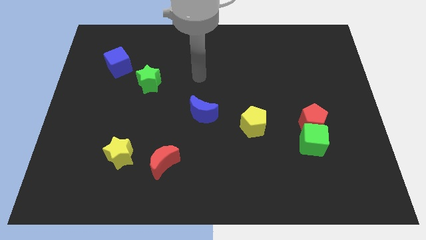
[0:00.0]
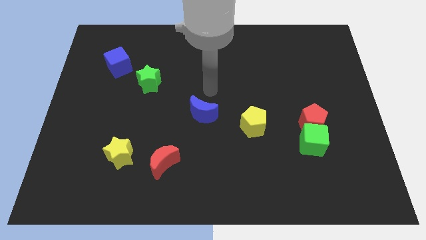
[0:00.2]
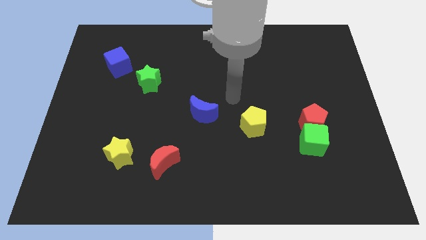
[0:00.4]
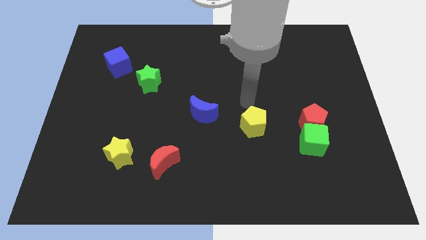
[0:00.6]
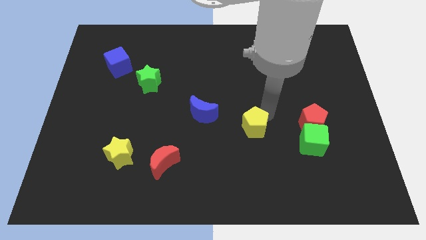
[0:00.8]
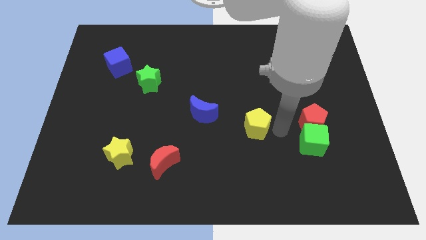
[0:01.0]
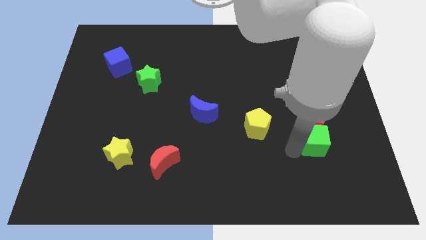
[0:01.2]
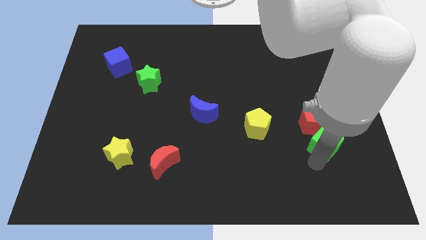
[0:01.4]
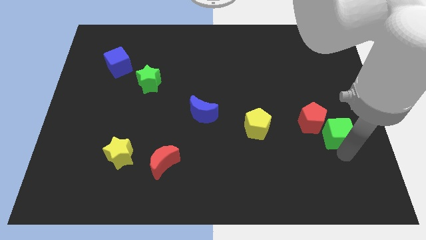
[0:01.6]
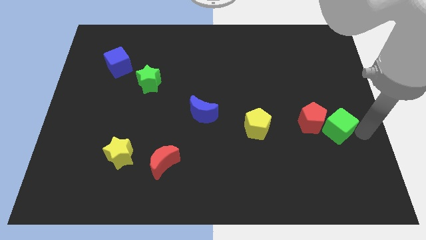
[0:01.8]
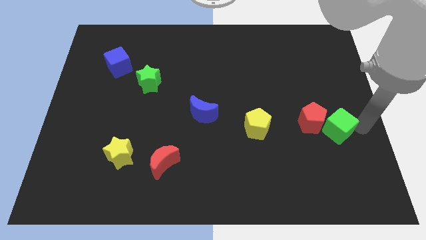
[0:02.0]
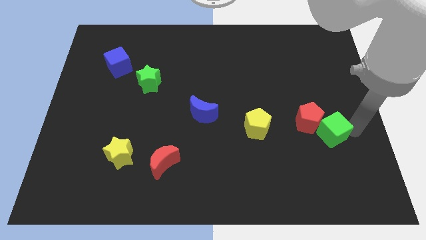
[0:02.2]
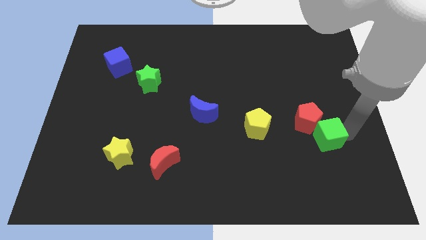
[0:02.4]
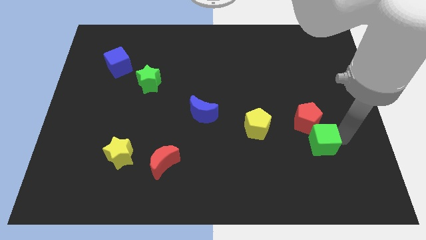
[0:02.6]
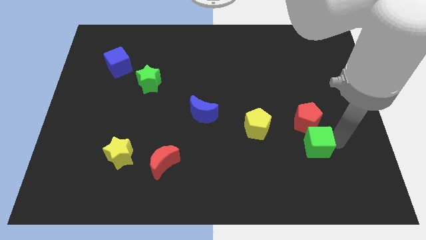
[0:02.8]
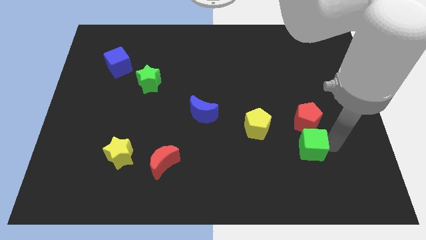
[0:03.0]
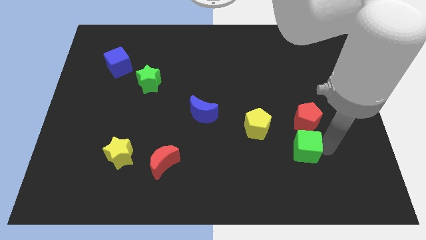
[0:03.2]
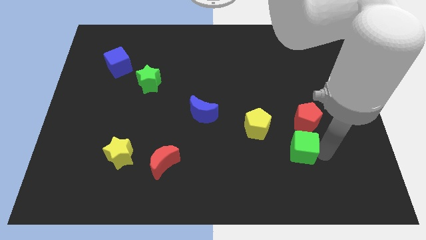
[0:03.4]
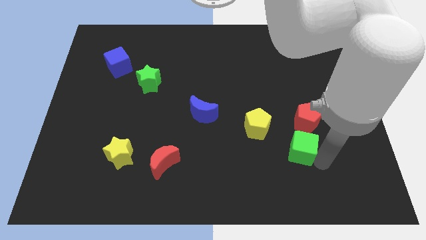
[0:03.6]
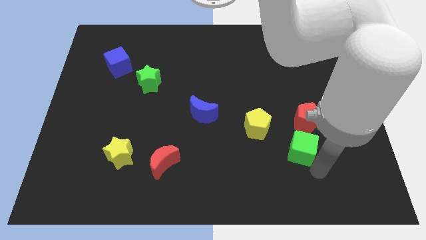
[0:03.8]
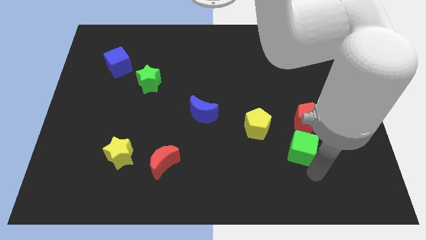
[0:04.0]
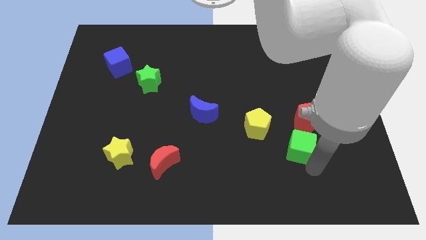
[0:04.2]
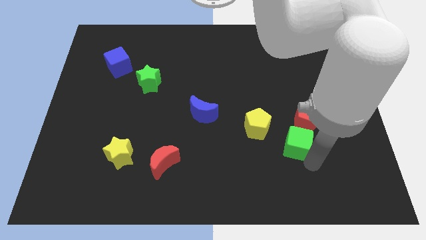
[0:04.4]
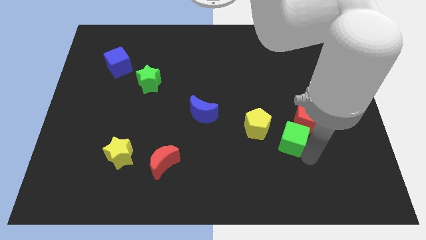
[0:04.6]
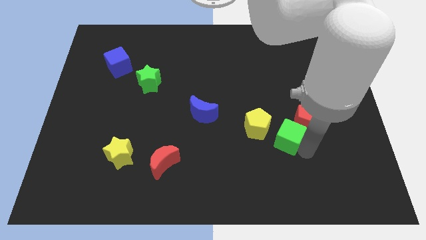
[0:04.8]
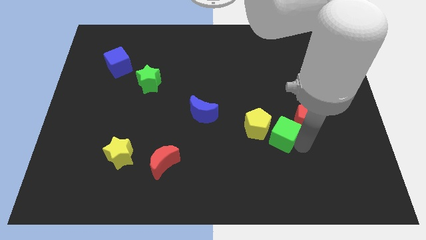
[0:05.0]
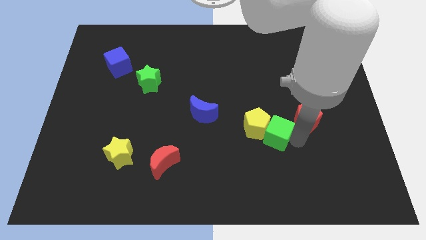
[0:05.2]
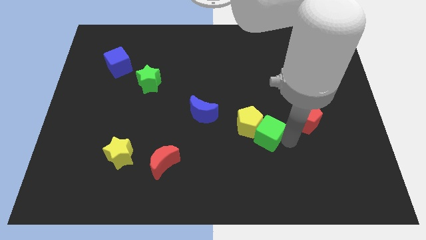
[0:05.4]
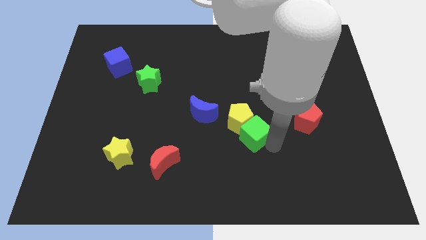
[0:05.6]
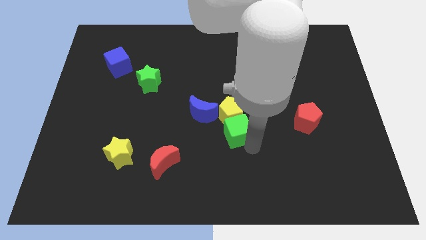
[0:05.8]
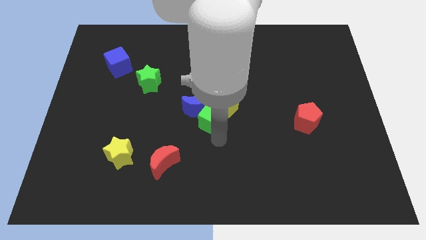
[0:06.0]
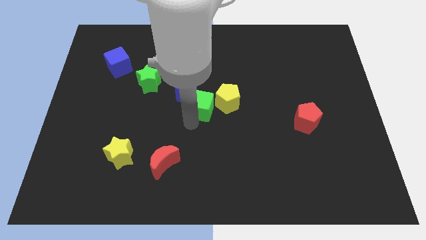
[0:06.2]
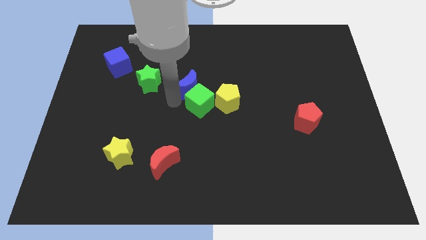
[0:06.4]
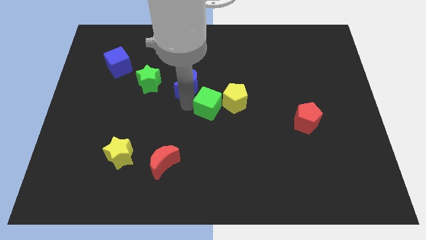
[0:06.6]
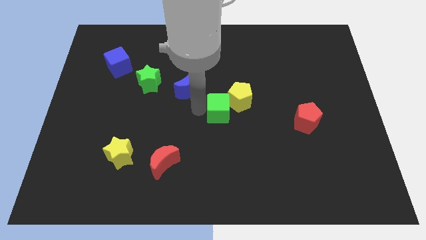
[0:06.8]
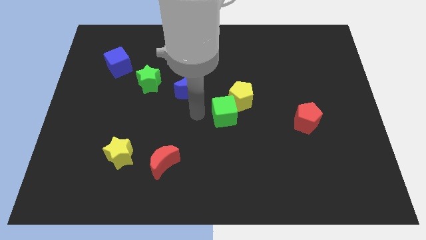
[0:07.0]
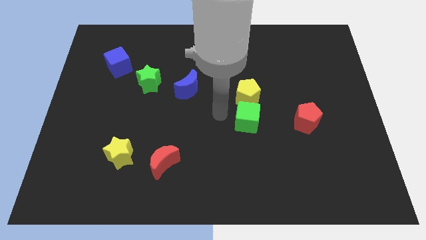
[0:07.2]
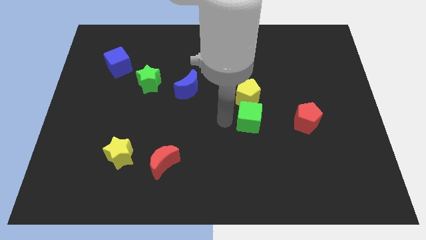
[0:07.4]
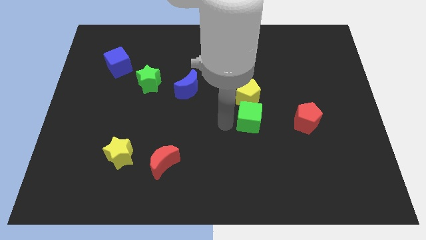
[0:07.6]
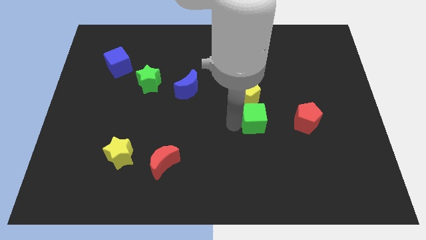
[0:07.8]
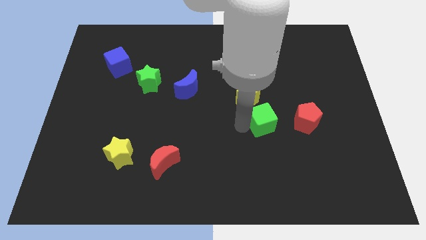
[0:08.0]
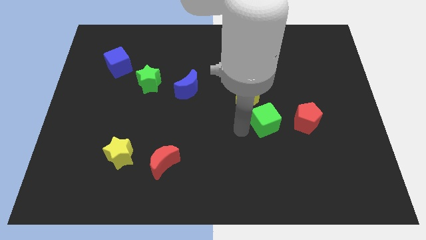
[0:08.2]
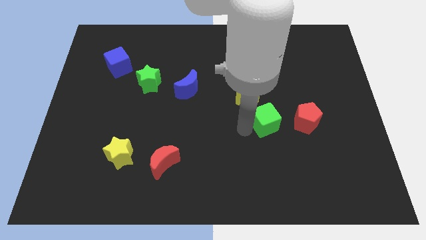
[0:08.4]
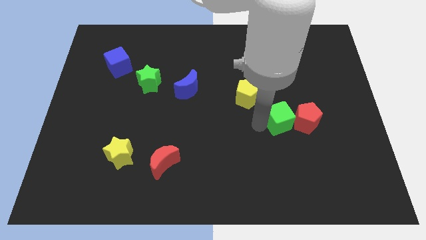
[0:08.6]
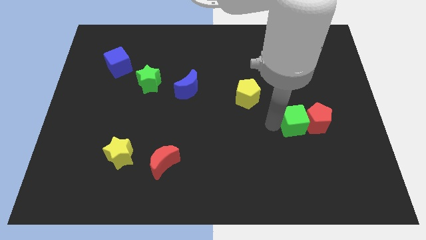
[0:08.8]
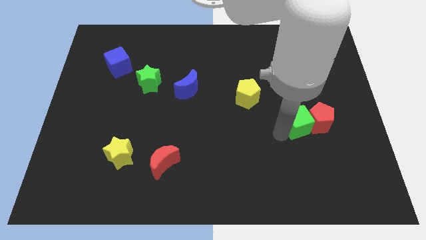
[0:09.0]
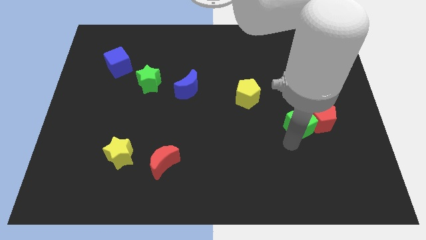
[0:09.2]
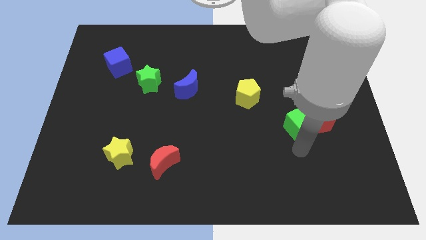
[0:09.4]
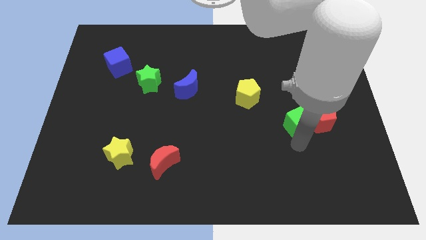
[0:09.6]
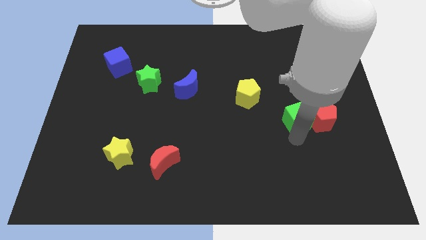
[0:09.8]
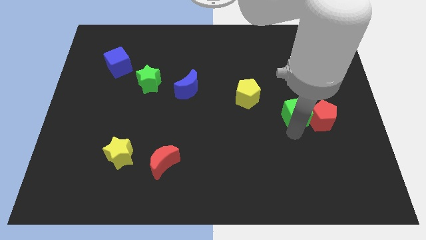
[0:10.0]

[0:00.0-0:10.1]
slide the green cube slightly up

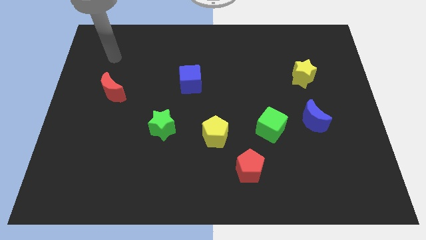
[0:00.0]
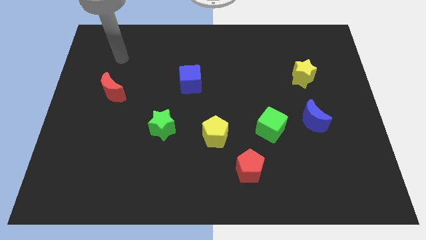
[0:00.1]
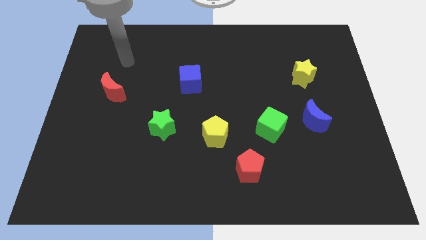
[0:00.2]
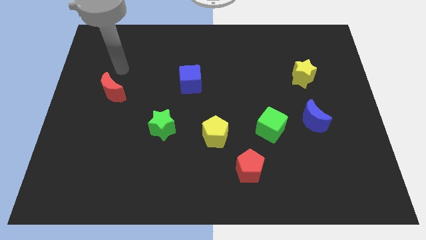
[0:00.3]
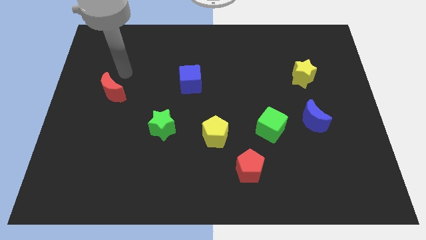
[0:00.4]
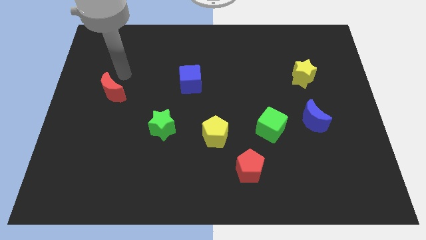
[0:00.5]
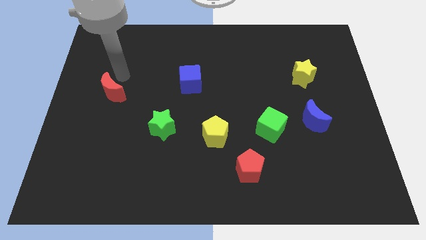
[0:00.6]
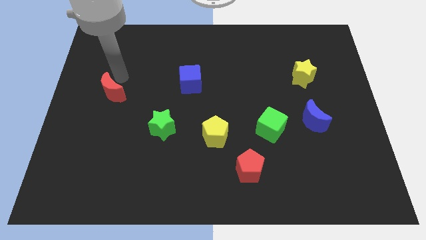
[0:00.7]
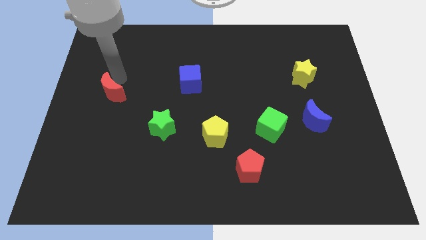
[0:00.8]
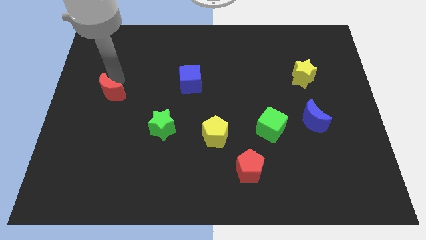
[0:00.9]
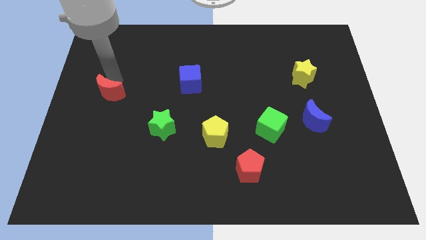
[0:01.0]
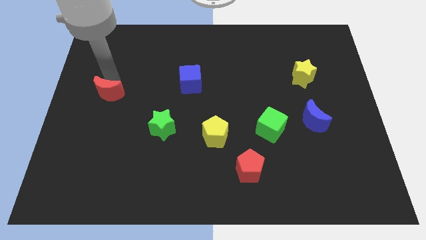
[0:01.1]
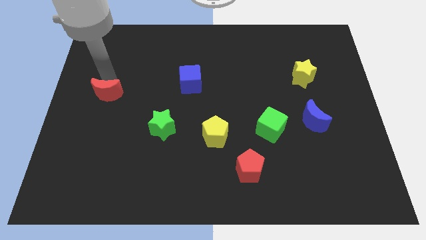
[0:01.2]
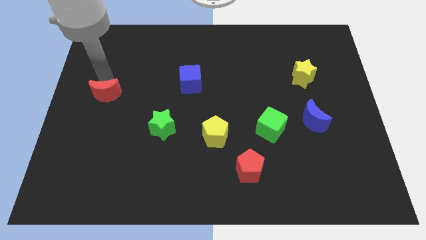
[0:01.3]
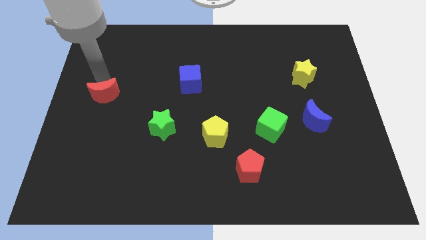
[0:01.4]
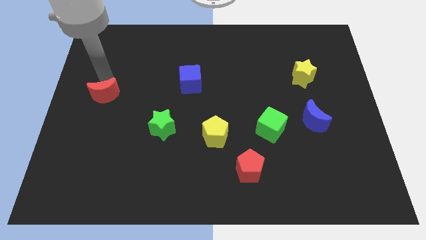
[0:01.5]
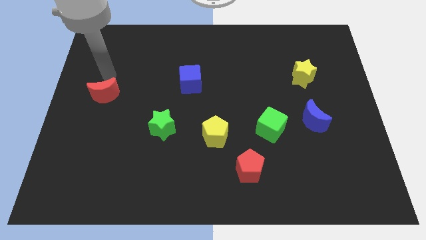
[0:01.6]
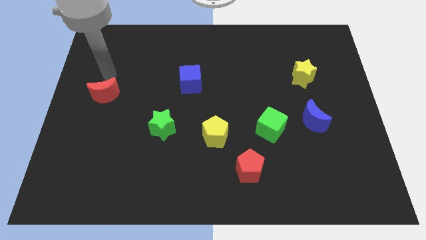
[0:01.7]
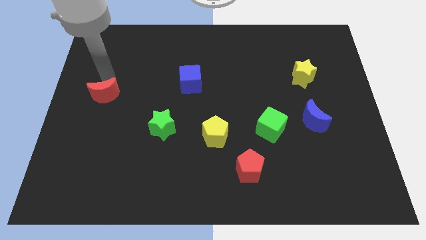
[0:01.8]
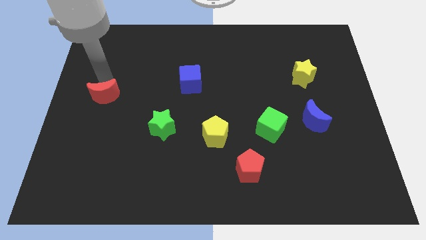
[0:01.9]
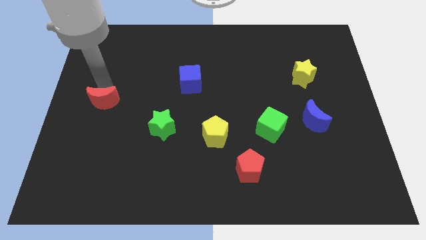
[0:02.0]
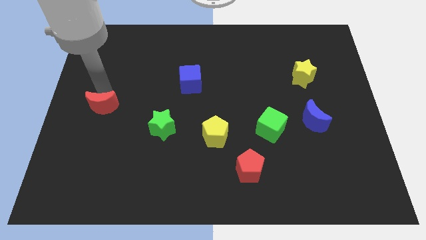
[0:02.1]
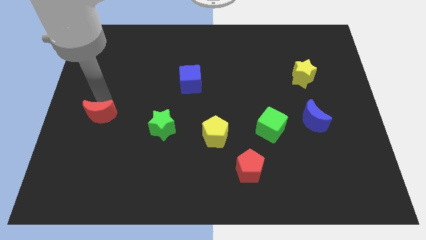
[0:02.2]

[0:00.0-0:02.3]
push the red moon somewhat down

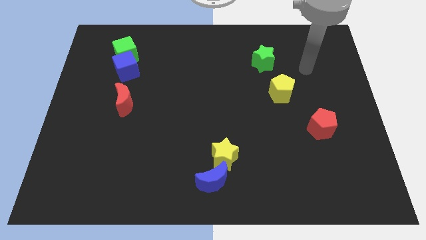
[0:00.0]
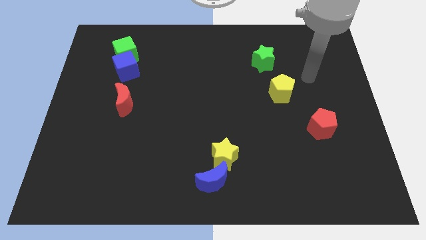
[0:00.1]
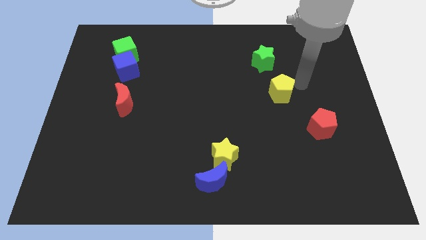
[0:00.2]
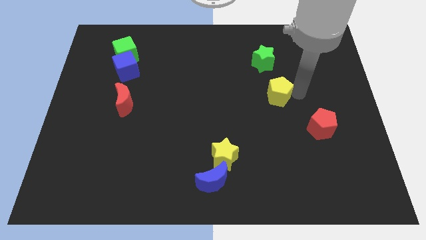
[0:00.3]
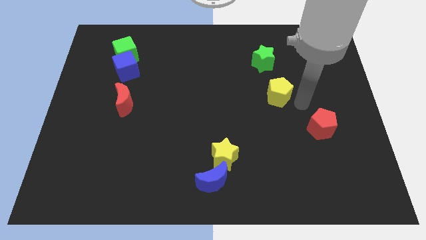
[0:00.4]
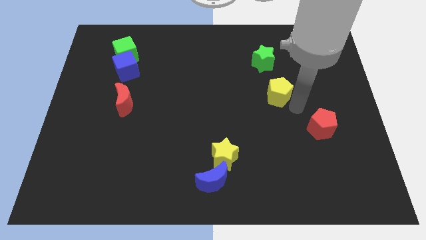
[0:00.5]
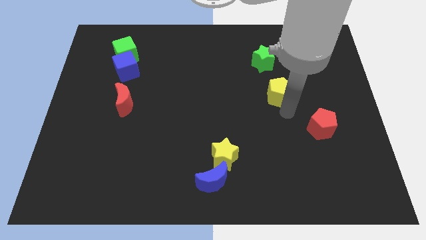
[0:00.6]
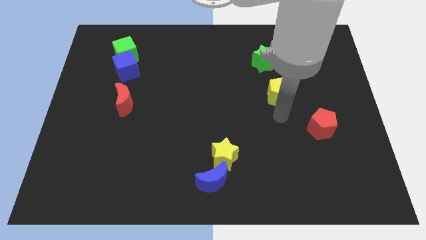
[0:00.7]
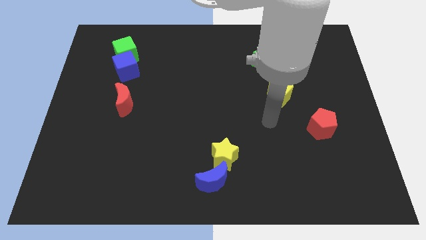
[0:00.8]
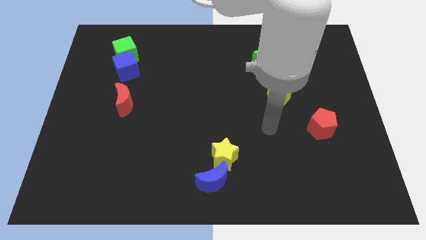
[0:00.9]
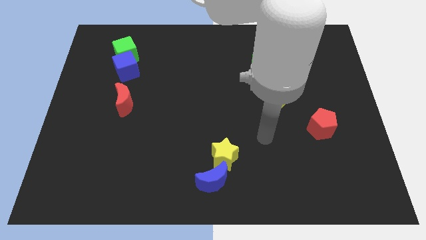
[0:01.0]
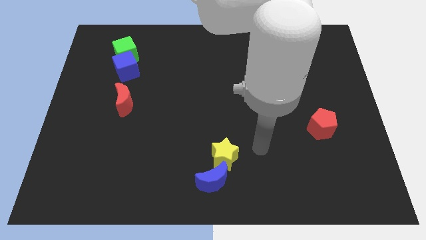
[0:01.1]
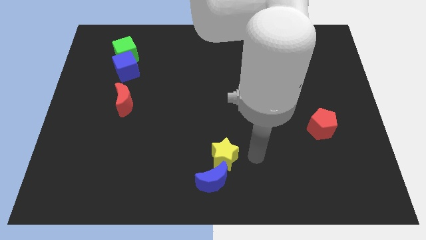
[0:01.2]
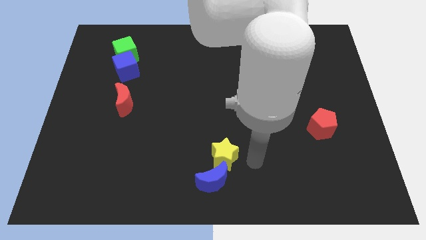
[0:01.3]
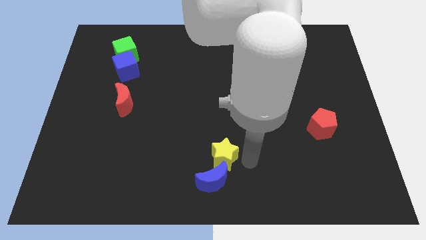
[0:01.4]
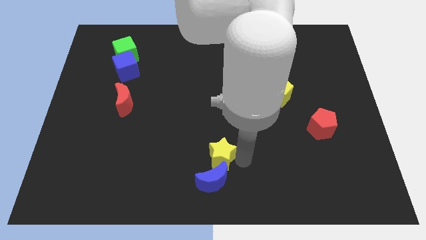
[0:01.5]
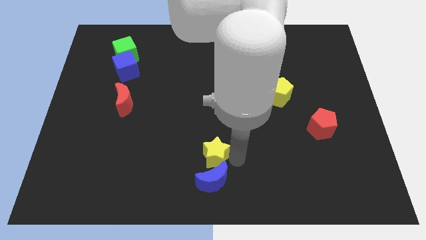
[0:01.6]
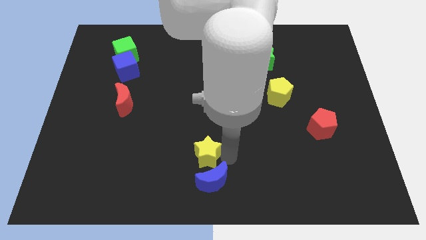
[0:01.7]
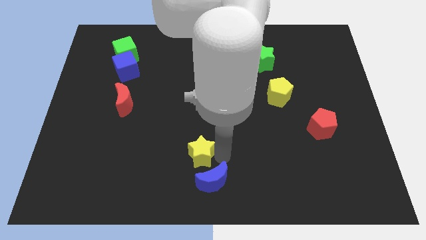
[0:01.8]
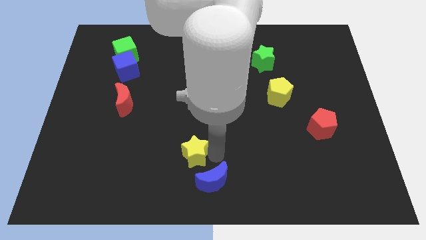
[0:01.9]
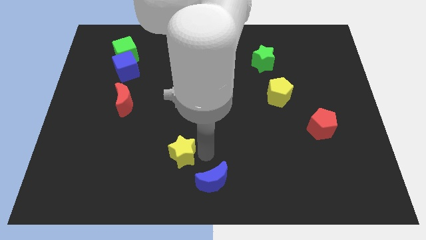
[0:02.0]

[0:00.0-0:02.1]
push the yellow star to the left slightly
